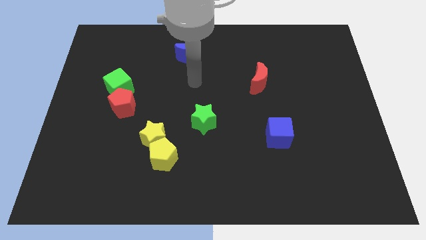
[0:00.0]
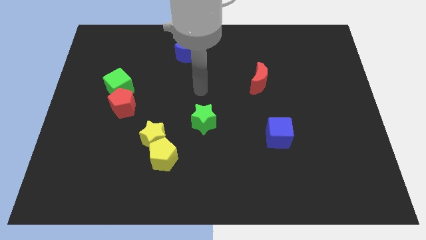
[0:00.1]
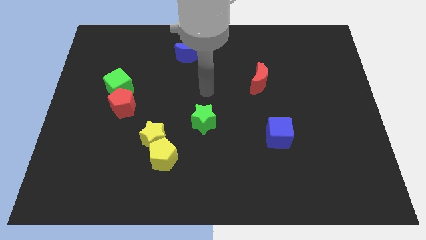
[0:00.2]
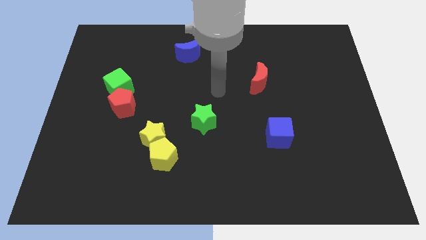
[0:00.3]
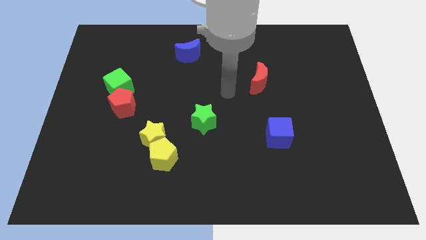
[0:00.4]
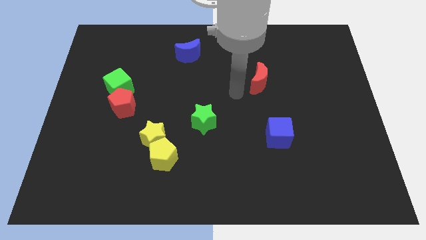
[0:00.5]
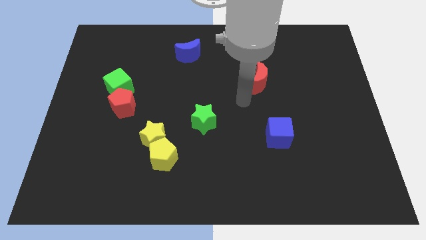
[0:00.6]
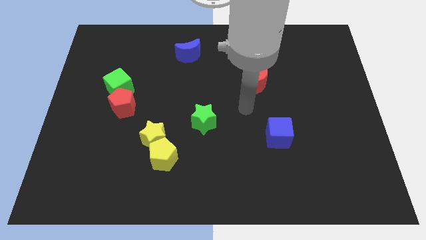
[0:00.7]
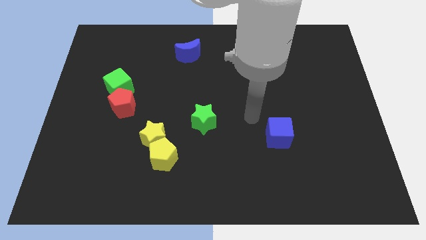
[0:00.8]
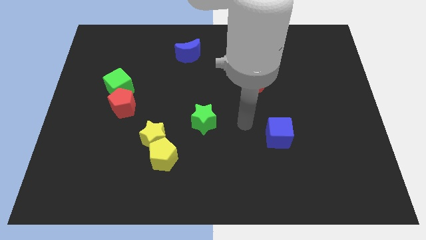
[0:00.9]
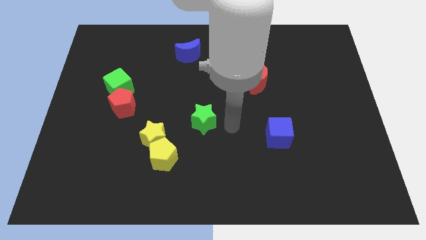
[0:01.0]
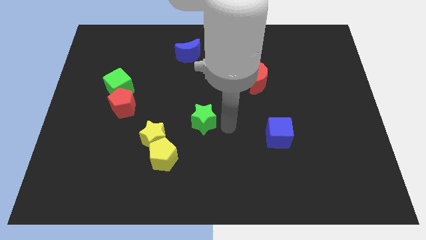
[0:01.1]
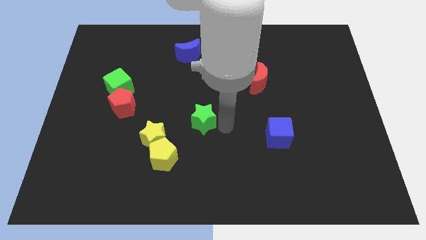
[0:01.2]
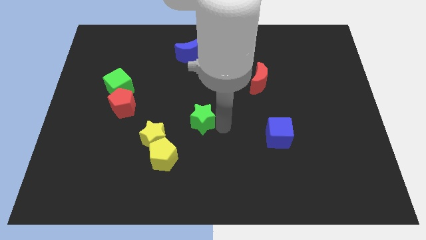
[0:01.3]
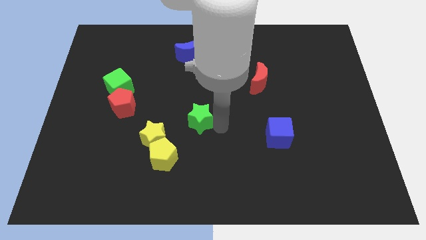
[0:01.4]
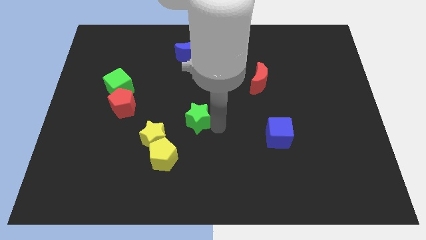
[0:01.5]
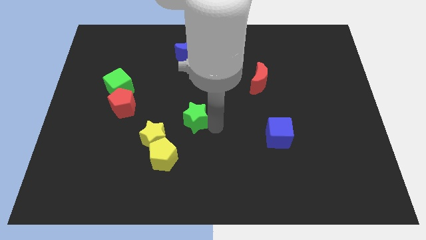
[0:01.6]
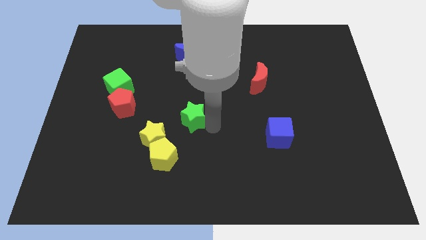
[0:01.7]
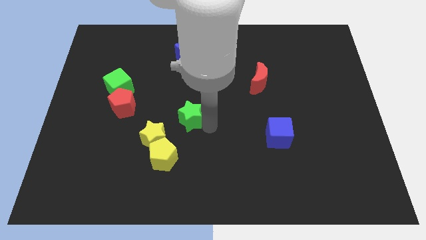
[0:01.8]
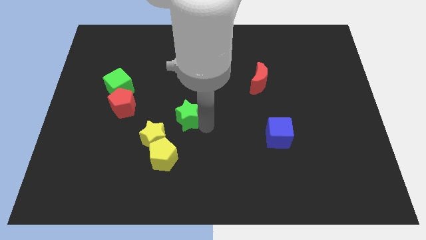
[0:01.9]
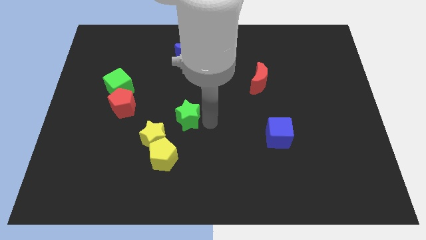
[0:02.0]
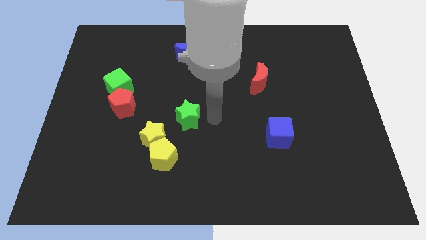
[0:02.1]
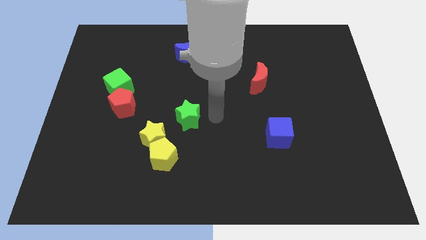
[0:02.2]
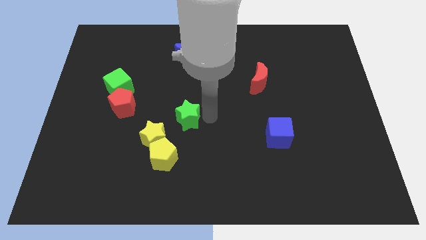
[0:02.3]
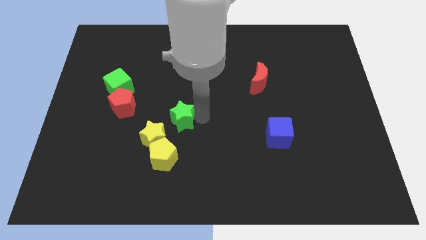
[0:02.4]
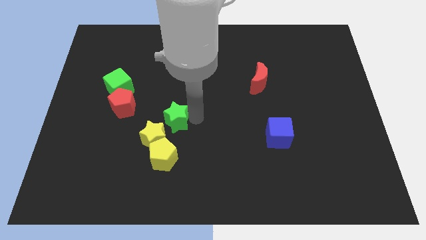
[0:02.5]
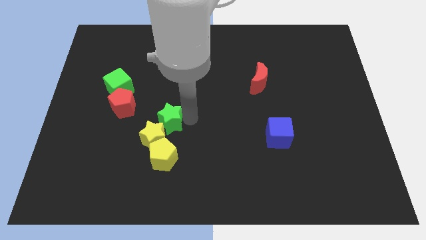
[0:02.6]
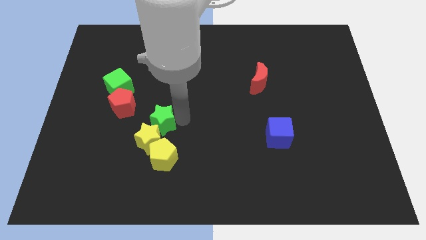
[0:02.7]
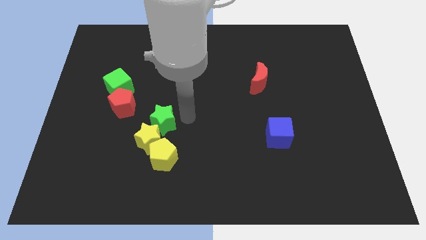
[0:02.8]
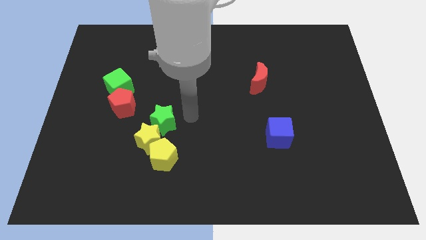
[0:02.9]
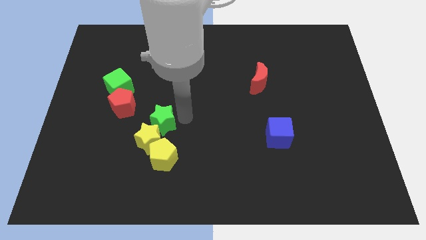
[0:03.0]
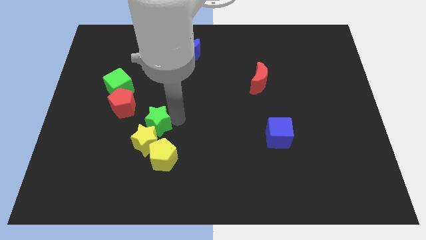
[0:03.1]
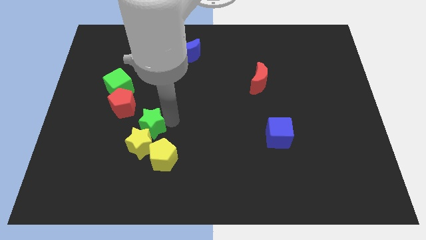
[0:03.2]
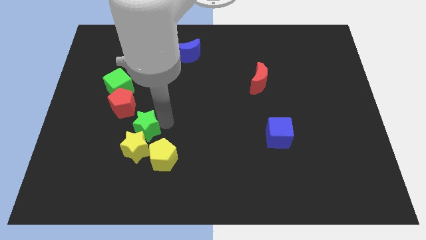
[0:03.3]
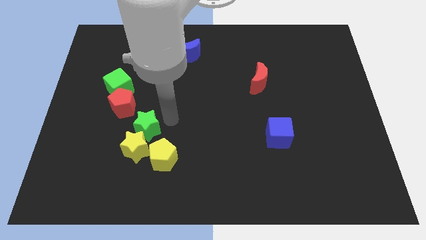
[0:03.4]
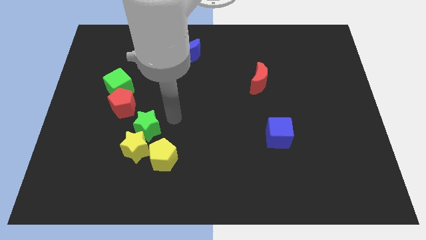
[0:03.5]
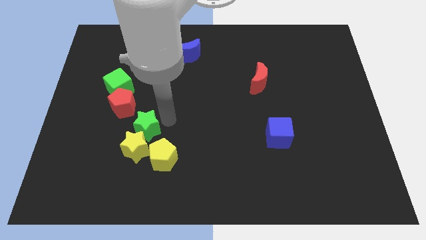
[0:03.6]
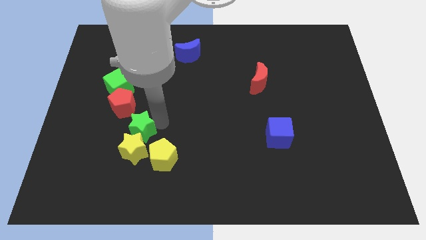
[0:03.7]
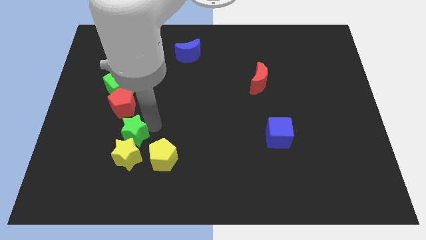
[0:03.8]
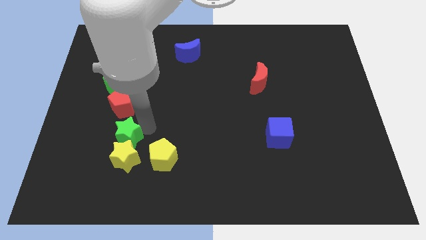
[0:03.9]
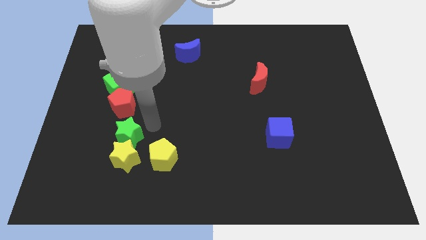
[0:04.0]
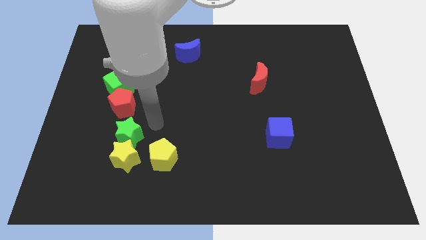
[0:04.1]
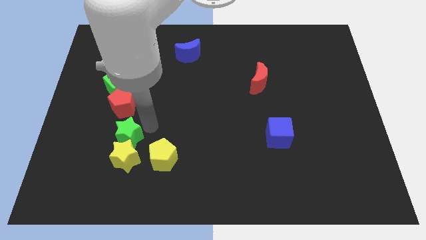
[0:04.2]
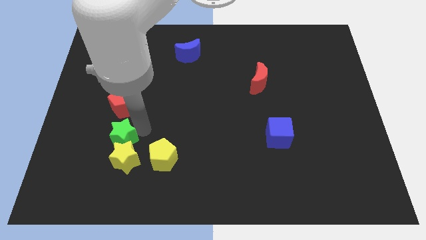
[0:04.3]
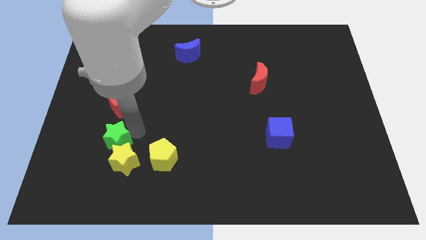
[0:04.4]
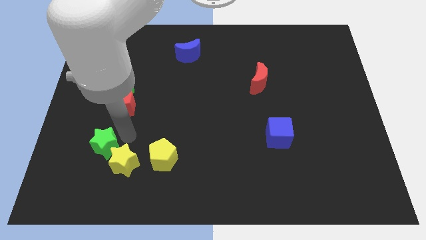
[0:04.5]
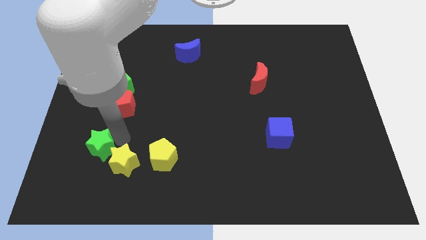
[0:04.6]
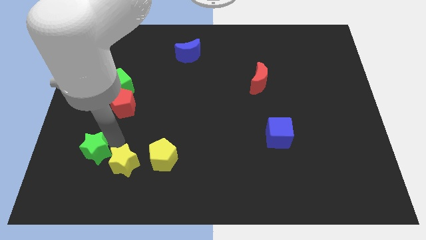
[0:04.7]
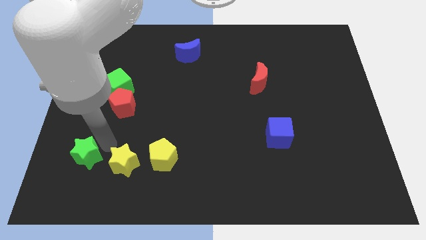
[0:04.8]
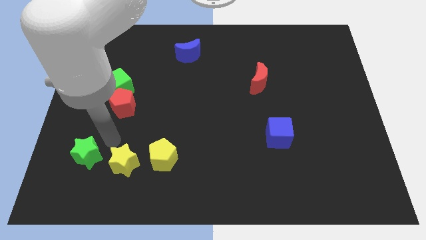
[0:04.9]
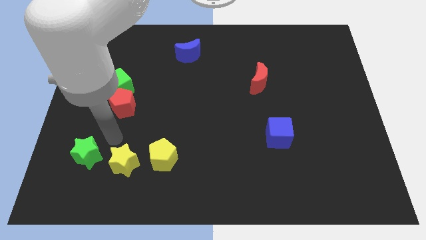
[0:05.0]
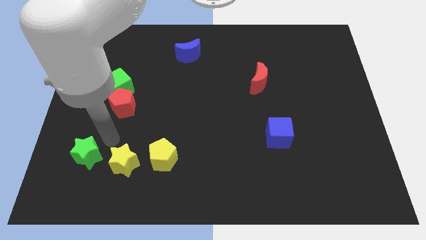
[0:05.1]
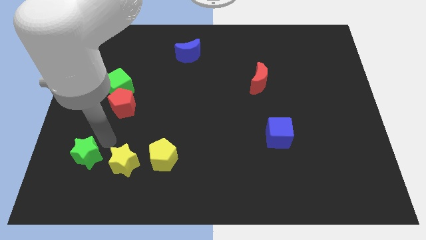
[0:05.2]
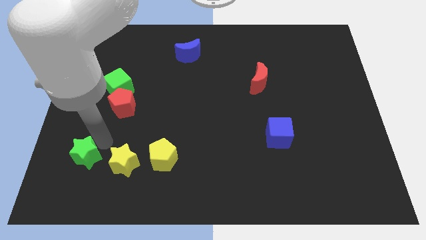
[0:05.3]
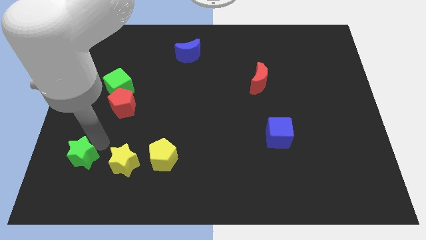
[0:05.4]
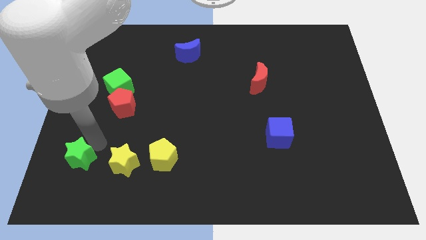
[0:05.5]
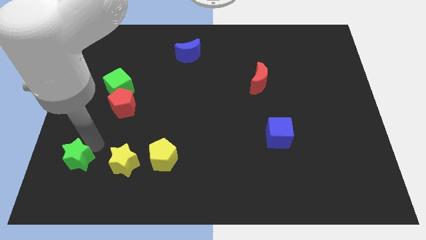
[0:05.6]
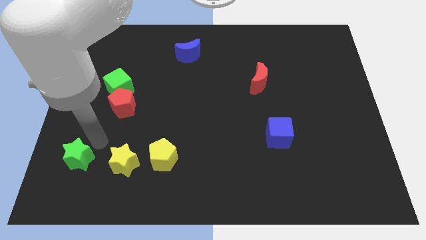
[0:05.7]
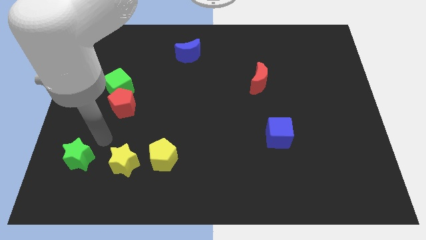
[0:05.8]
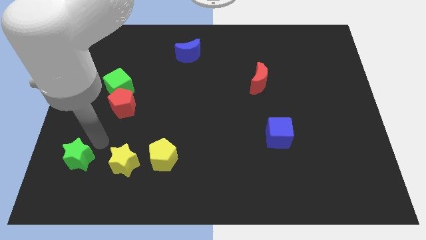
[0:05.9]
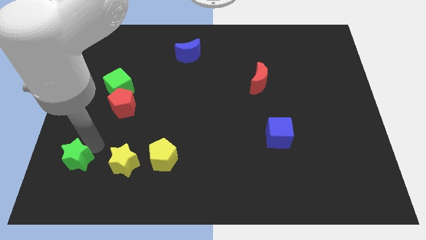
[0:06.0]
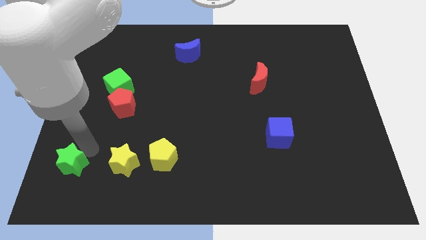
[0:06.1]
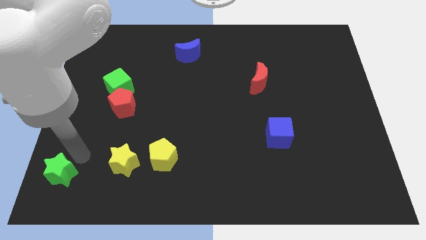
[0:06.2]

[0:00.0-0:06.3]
put the green star to the bottom left corner

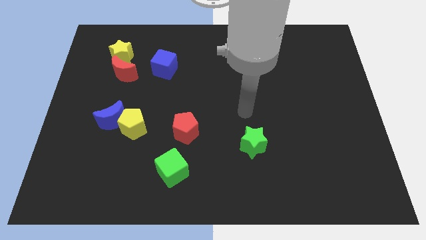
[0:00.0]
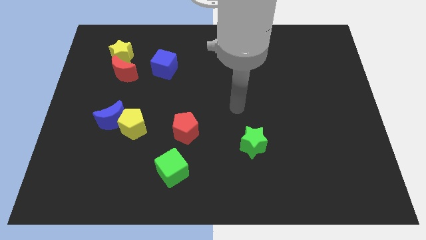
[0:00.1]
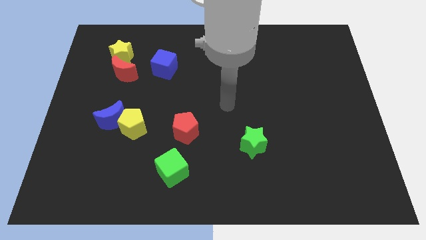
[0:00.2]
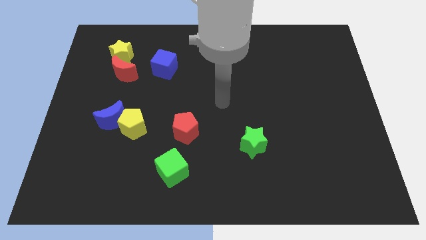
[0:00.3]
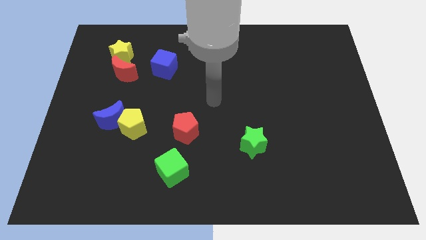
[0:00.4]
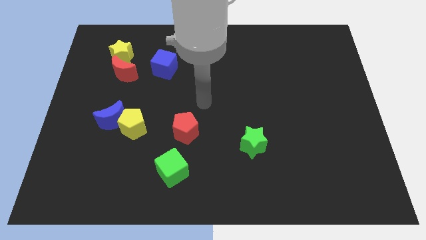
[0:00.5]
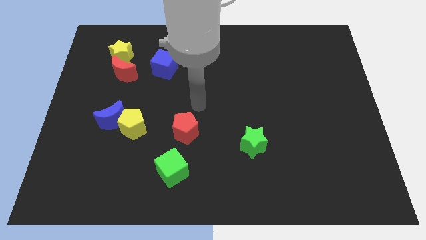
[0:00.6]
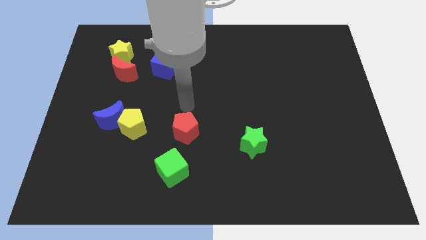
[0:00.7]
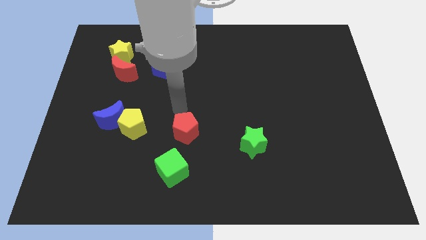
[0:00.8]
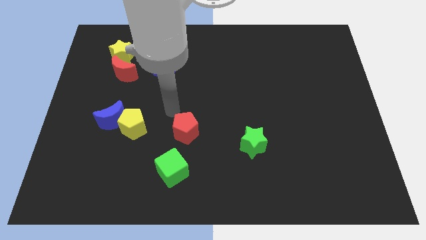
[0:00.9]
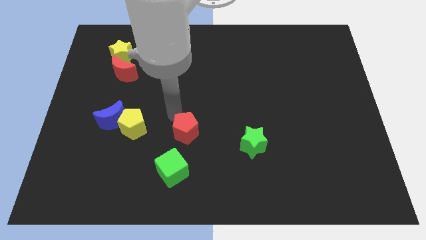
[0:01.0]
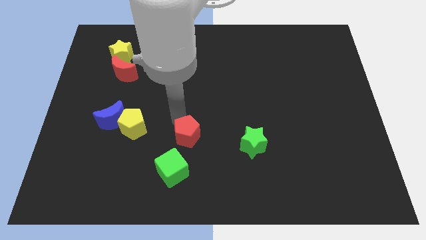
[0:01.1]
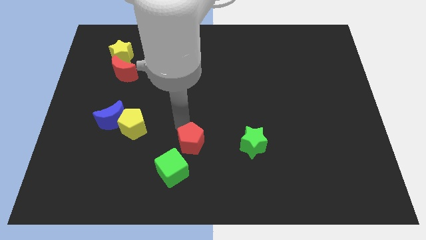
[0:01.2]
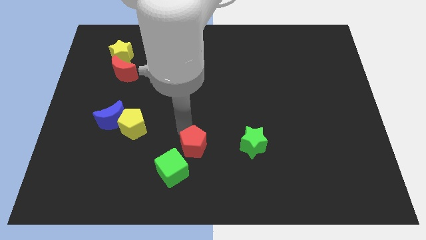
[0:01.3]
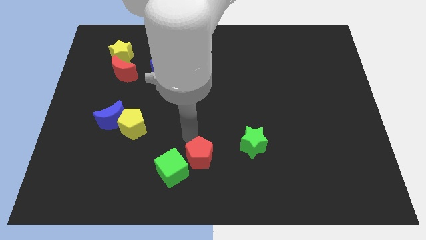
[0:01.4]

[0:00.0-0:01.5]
put the red pentagon to the bottom side
